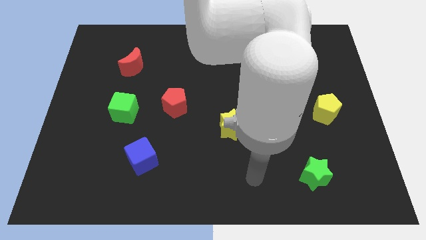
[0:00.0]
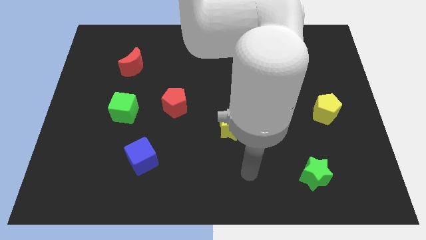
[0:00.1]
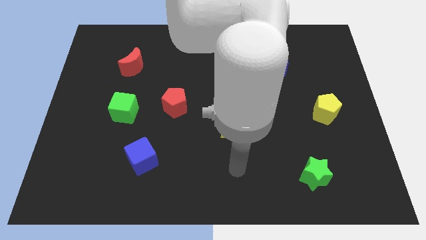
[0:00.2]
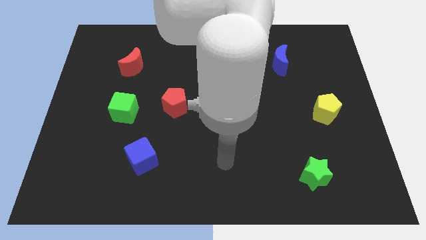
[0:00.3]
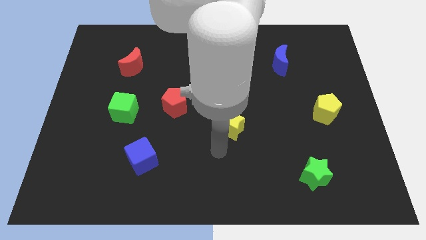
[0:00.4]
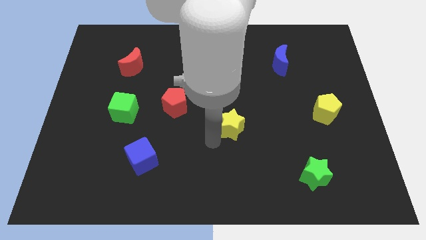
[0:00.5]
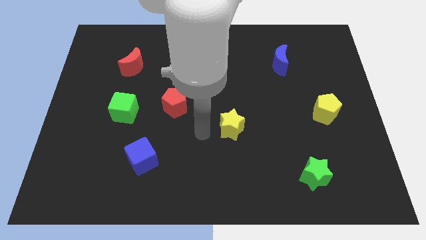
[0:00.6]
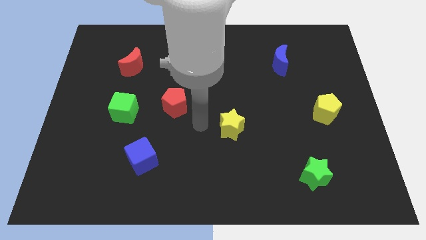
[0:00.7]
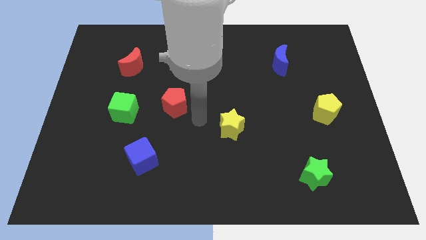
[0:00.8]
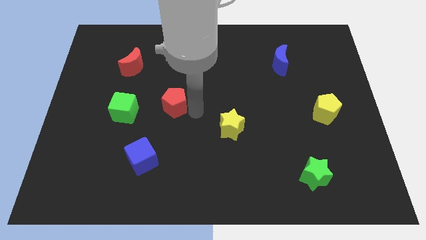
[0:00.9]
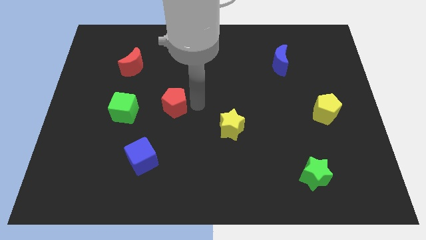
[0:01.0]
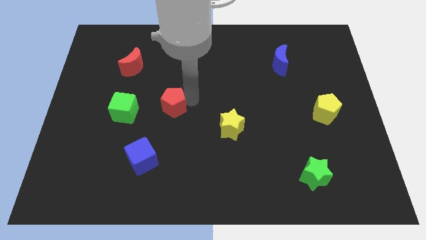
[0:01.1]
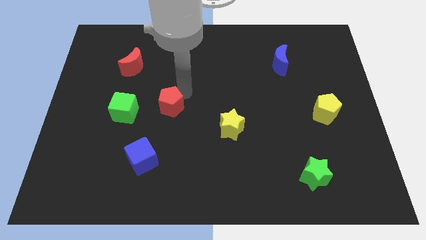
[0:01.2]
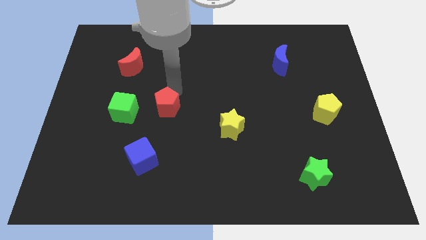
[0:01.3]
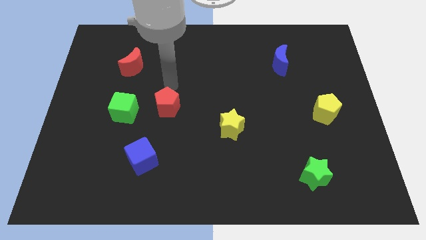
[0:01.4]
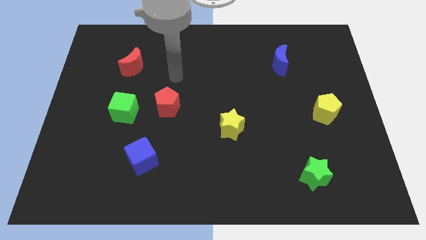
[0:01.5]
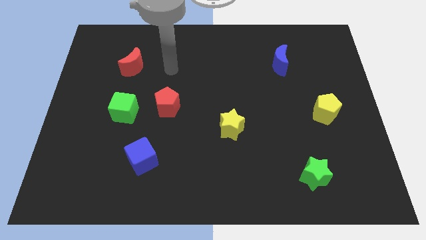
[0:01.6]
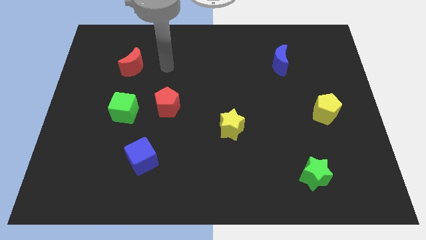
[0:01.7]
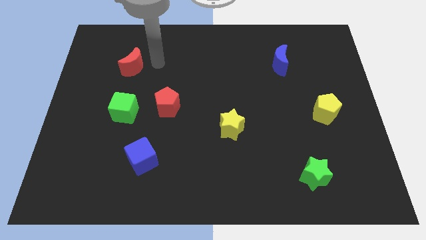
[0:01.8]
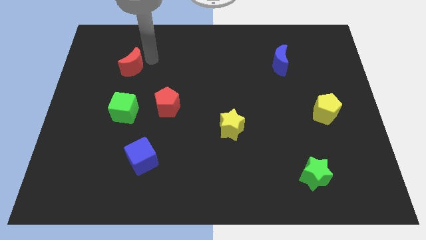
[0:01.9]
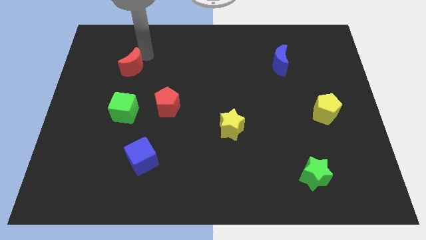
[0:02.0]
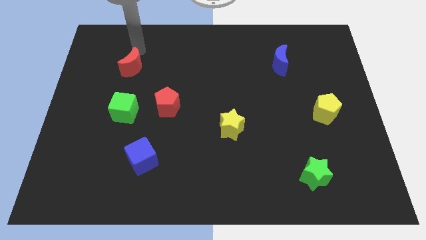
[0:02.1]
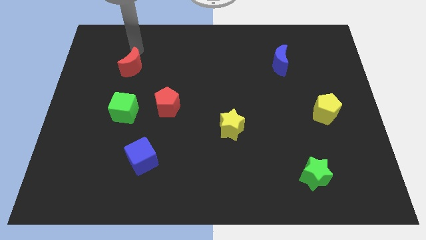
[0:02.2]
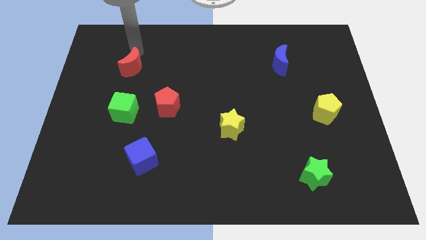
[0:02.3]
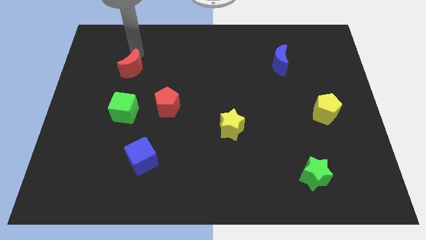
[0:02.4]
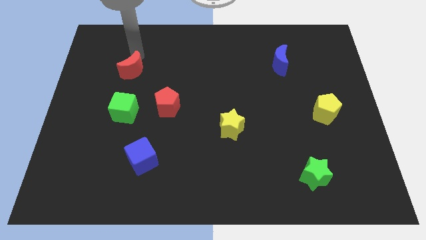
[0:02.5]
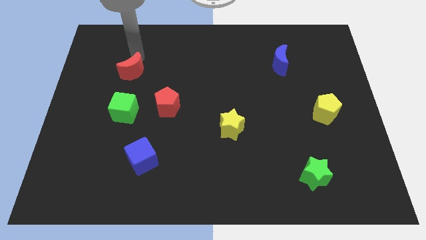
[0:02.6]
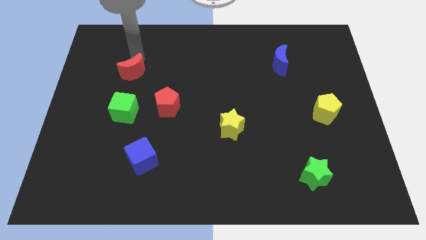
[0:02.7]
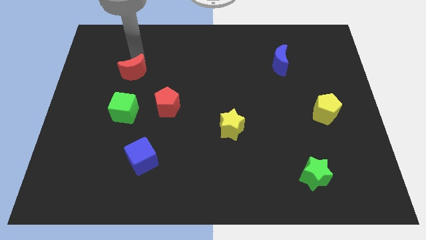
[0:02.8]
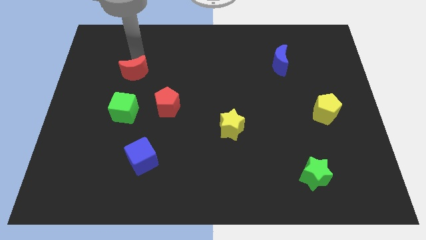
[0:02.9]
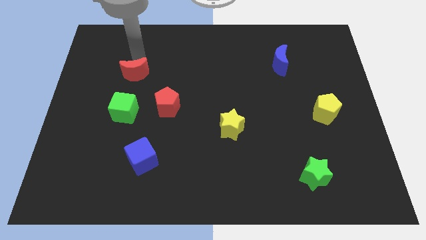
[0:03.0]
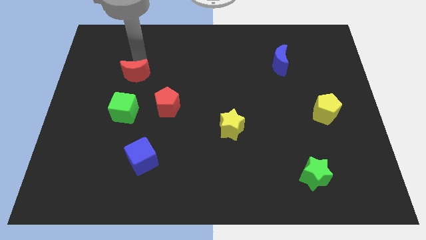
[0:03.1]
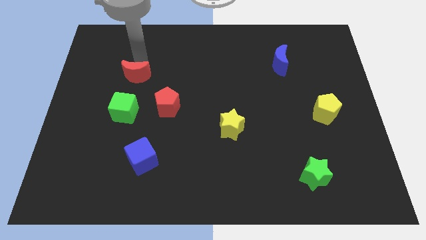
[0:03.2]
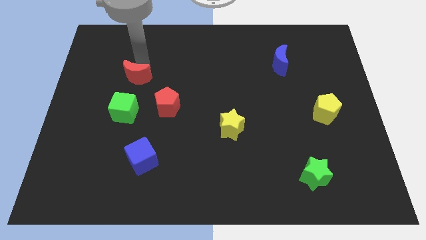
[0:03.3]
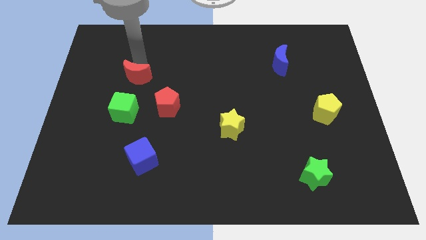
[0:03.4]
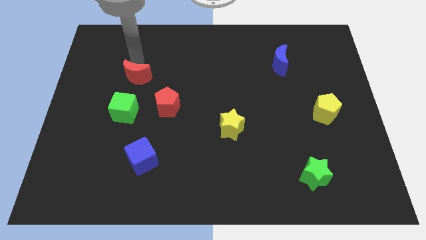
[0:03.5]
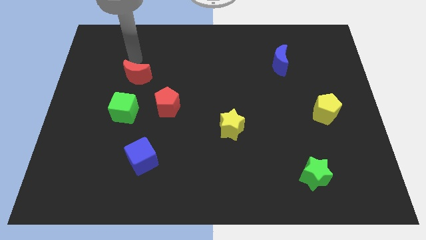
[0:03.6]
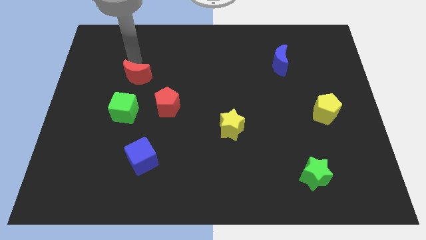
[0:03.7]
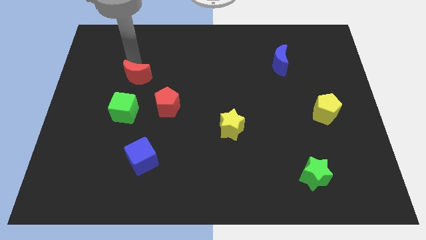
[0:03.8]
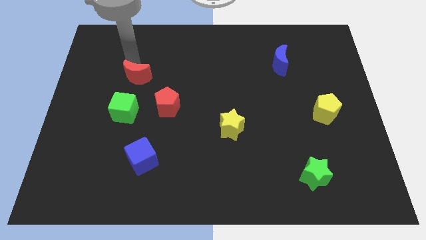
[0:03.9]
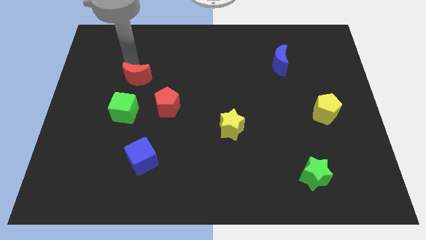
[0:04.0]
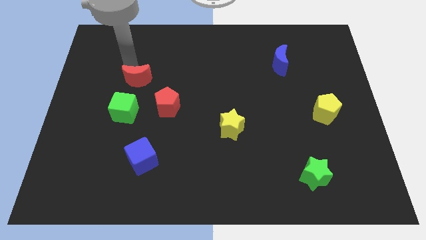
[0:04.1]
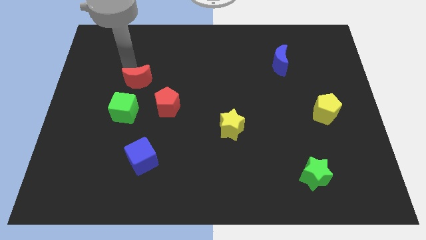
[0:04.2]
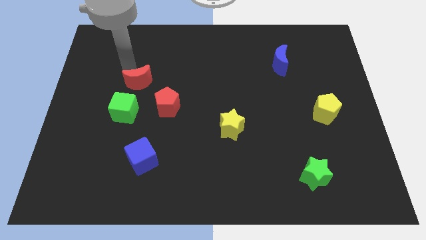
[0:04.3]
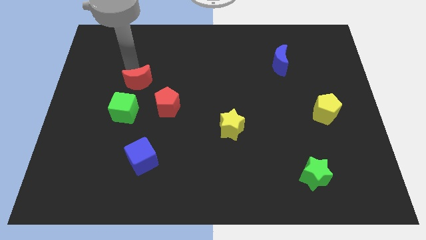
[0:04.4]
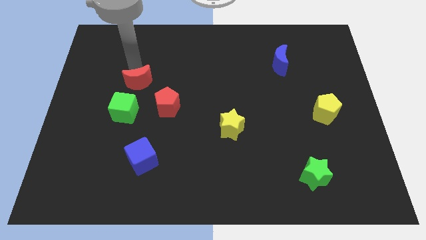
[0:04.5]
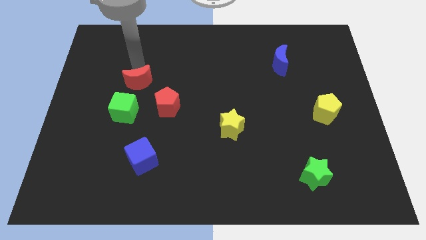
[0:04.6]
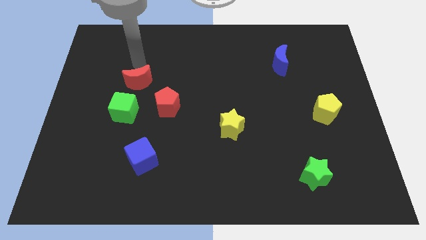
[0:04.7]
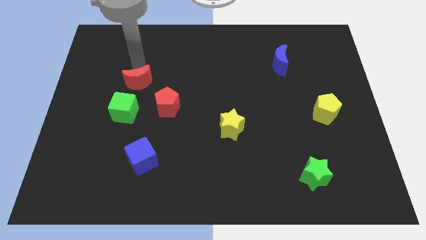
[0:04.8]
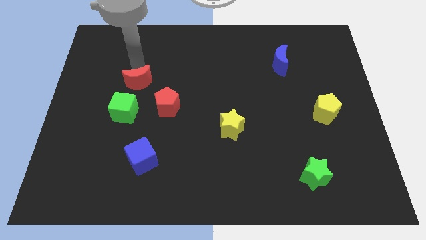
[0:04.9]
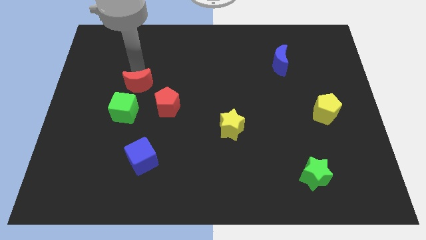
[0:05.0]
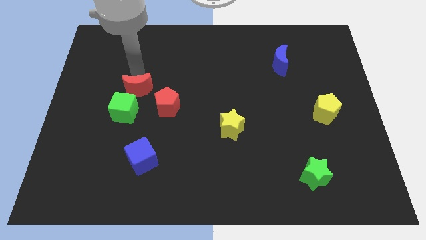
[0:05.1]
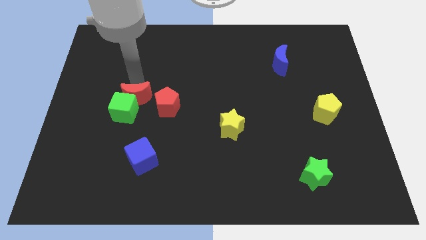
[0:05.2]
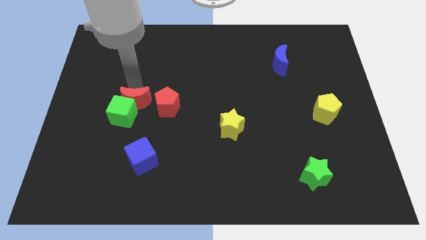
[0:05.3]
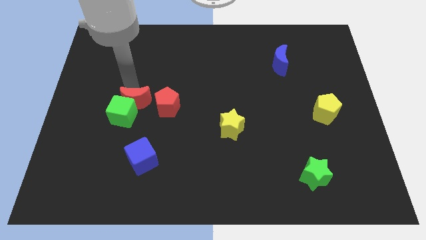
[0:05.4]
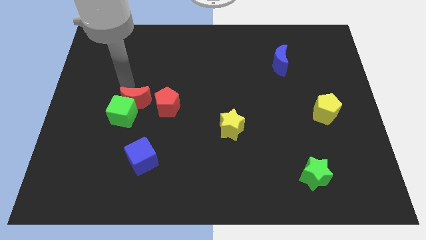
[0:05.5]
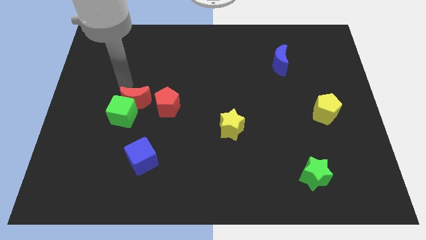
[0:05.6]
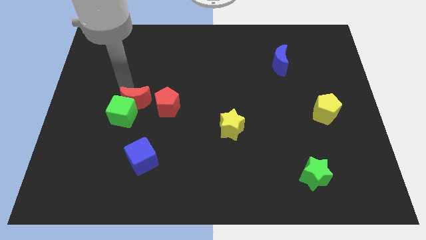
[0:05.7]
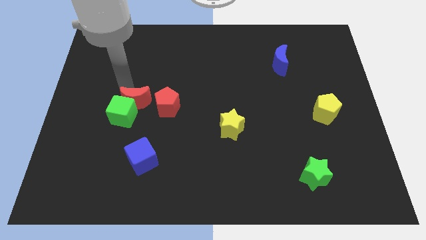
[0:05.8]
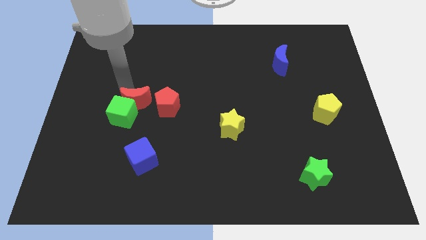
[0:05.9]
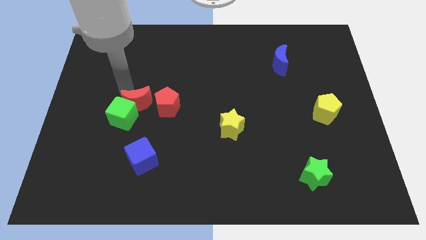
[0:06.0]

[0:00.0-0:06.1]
push the red moon to the top side of the blue cube

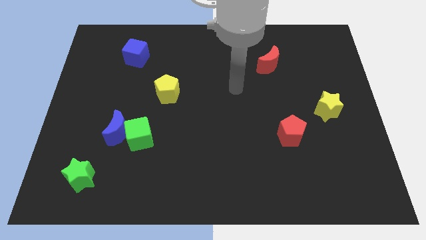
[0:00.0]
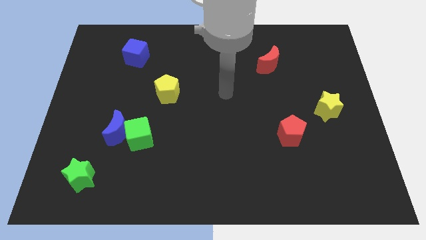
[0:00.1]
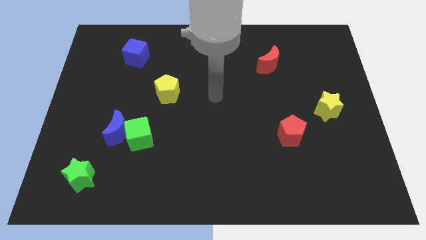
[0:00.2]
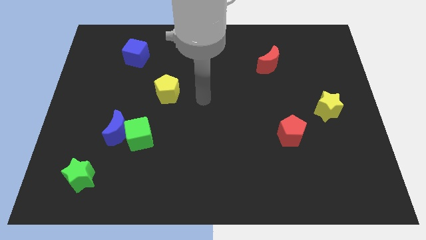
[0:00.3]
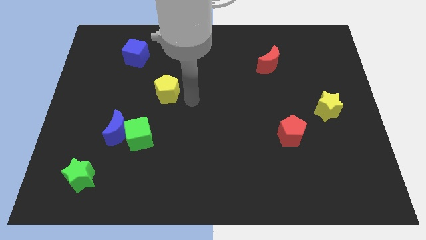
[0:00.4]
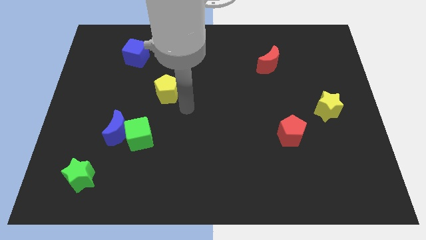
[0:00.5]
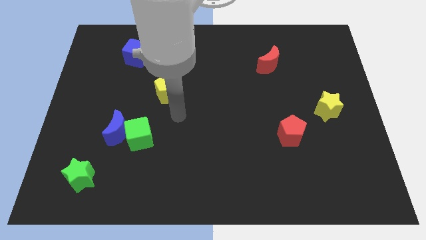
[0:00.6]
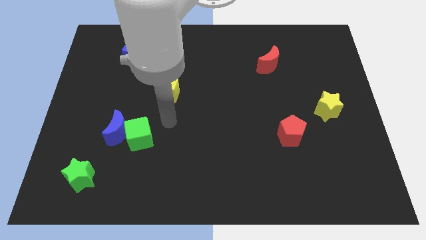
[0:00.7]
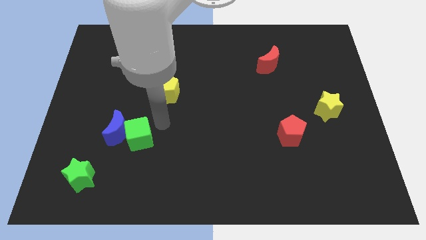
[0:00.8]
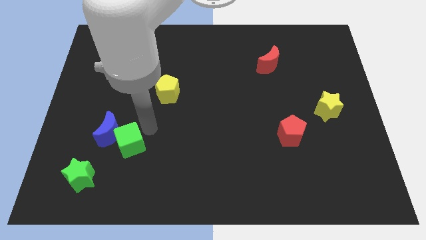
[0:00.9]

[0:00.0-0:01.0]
put the blue moon to the top side of the green star
